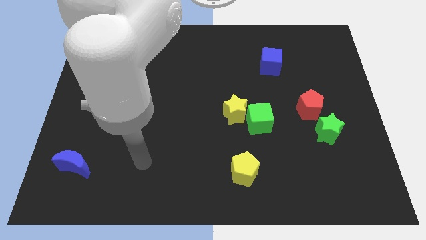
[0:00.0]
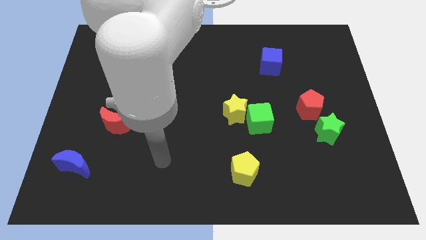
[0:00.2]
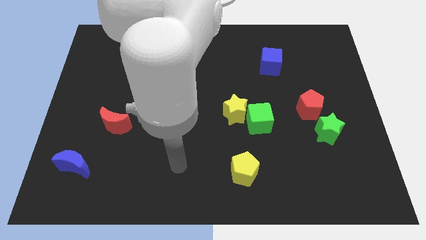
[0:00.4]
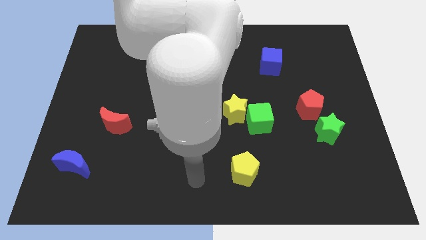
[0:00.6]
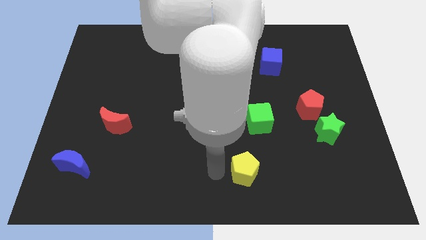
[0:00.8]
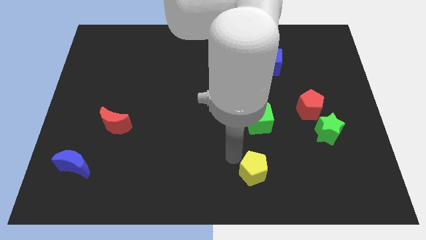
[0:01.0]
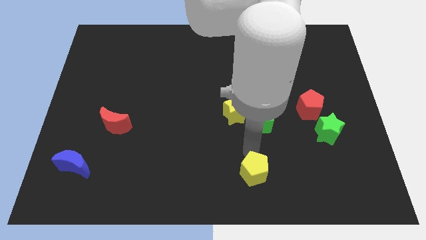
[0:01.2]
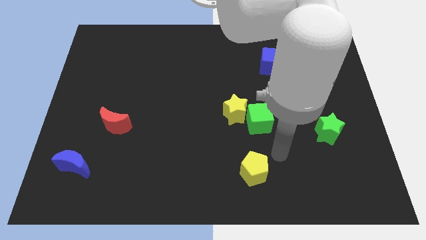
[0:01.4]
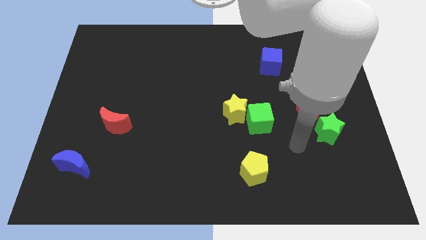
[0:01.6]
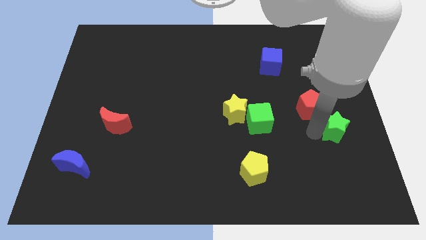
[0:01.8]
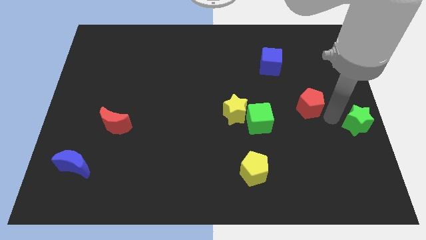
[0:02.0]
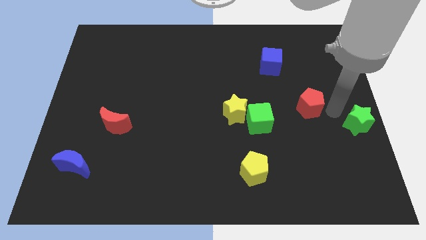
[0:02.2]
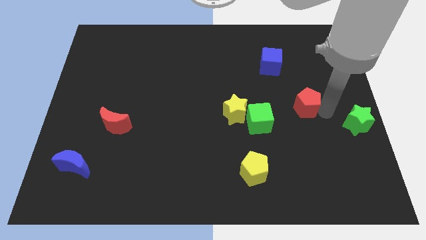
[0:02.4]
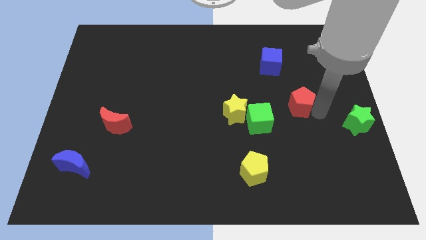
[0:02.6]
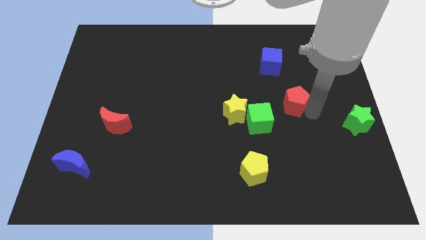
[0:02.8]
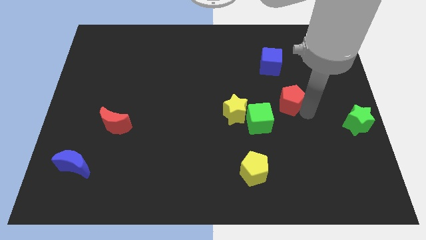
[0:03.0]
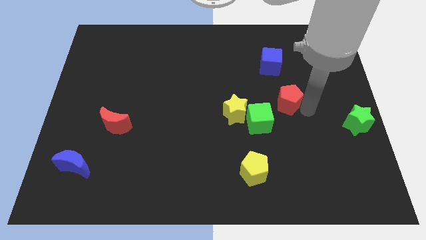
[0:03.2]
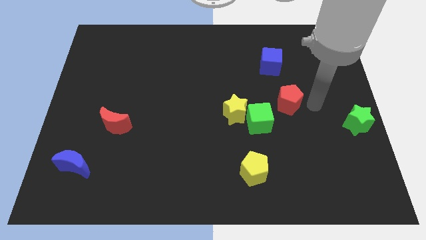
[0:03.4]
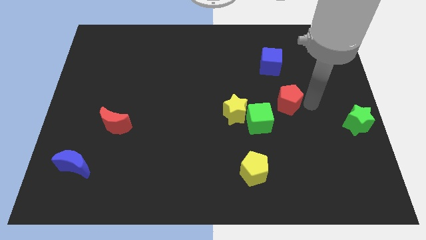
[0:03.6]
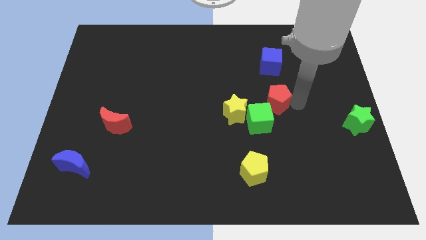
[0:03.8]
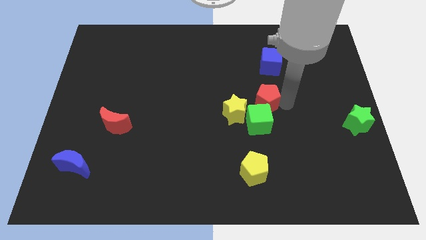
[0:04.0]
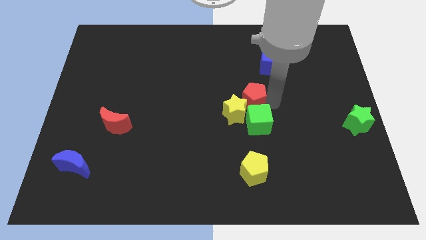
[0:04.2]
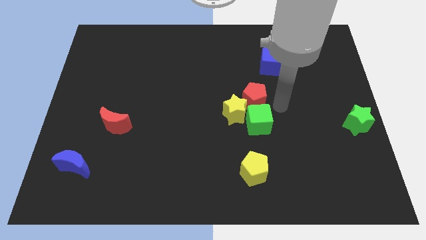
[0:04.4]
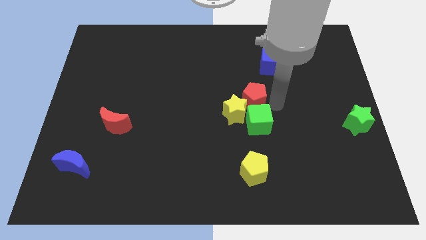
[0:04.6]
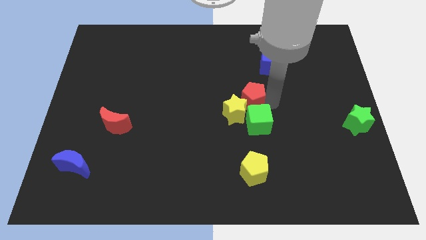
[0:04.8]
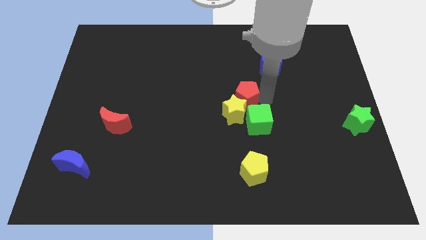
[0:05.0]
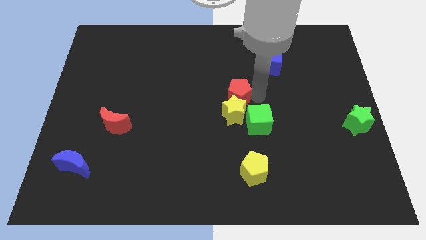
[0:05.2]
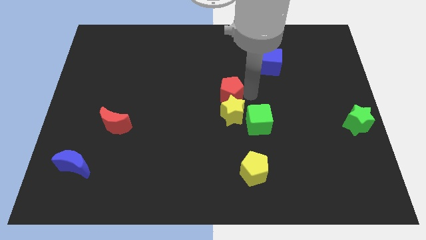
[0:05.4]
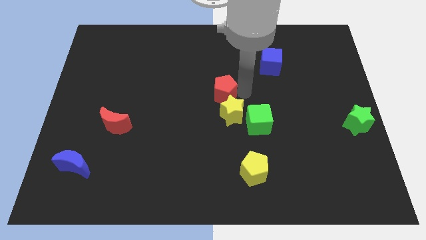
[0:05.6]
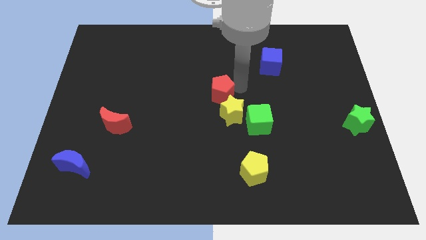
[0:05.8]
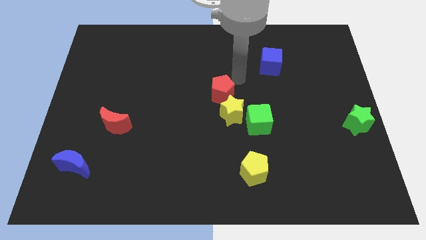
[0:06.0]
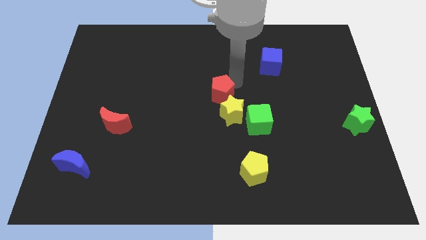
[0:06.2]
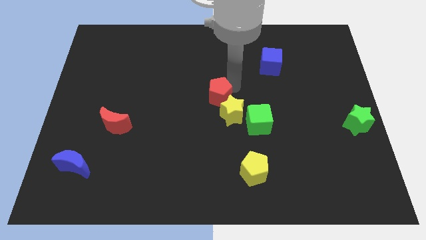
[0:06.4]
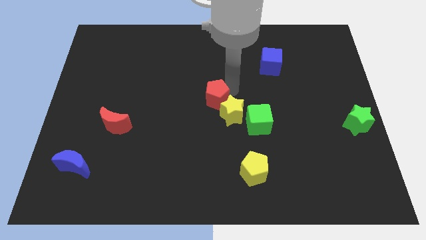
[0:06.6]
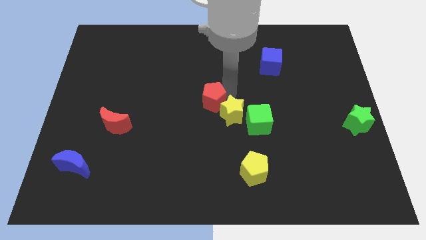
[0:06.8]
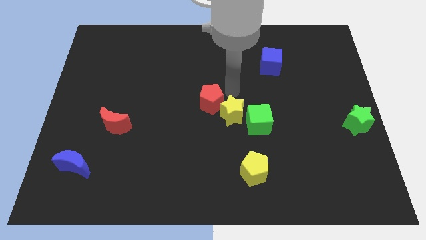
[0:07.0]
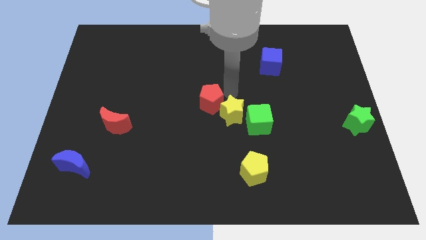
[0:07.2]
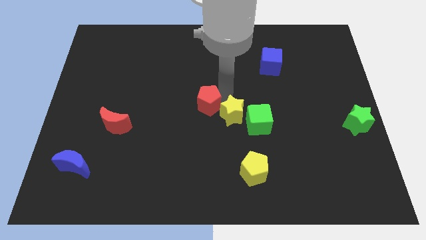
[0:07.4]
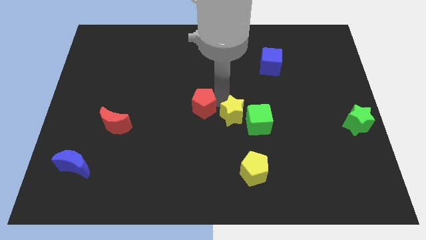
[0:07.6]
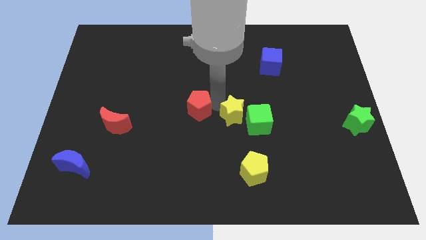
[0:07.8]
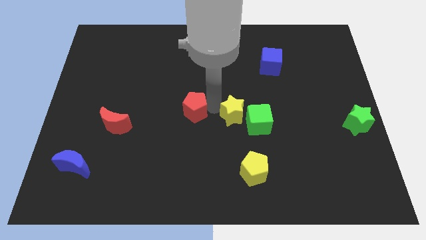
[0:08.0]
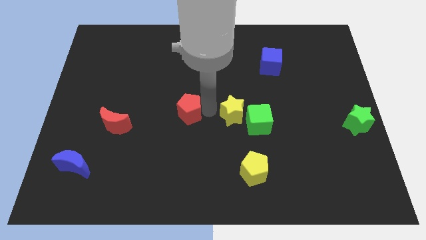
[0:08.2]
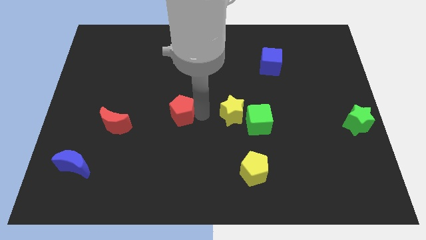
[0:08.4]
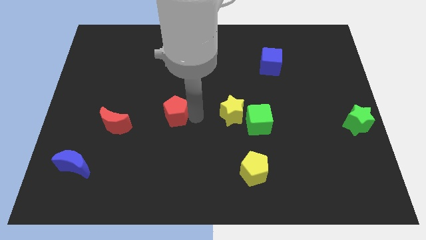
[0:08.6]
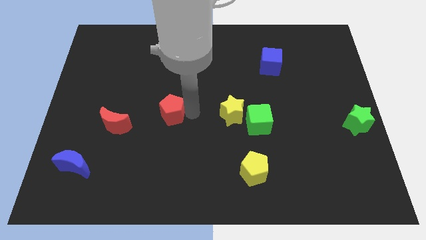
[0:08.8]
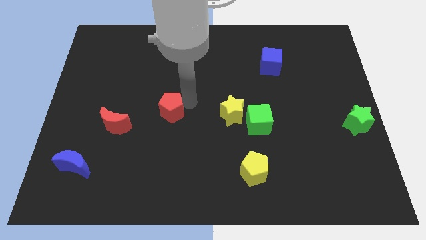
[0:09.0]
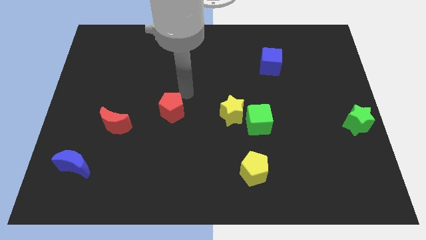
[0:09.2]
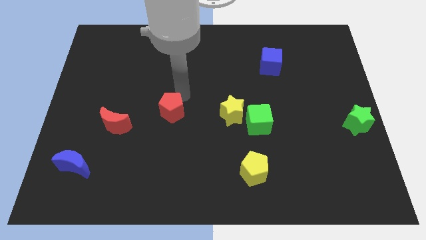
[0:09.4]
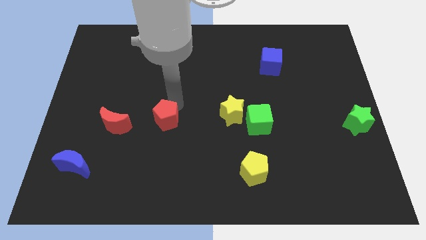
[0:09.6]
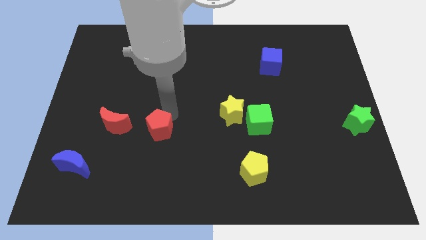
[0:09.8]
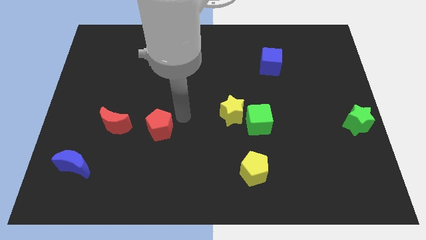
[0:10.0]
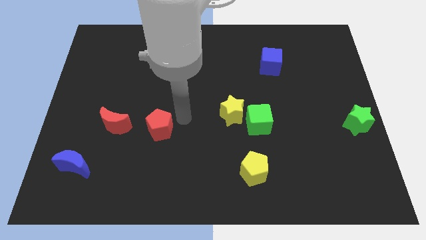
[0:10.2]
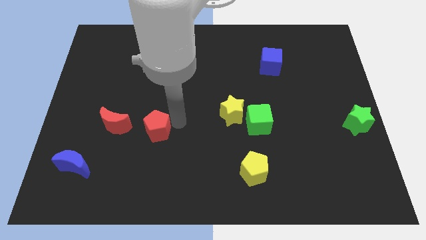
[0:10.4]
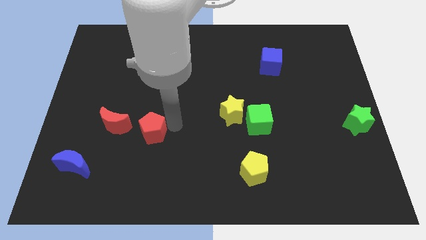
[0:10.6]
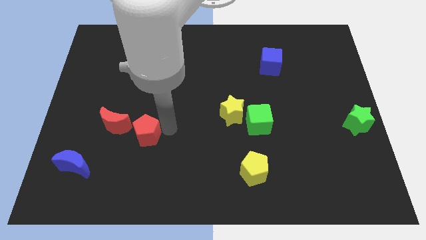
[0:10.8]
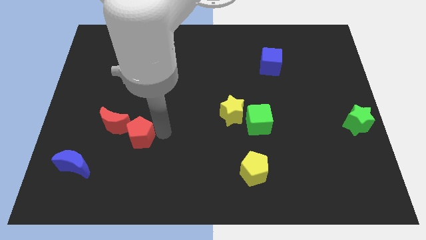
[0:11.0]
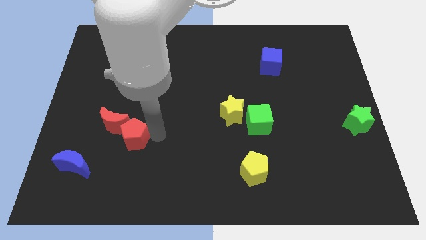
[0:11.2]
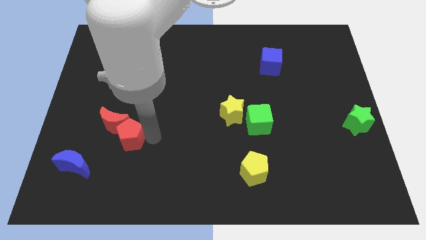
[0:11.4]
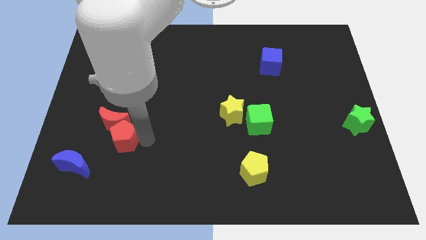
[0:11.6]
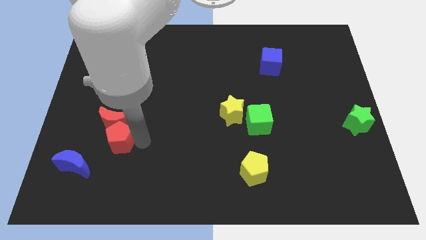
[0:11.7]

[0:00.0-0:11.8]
slide the red pentagon to the bottom left of the red moon

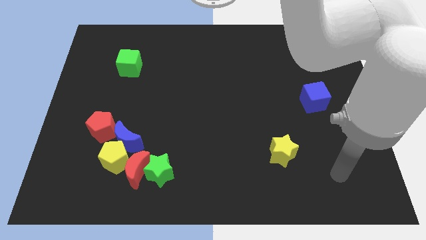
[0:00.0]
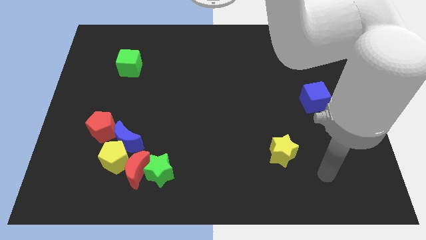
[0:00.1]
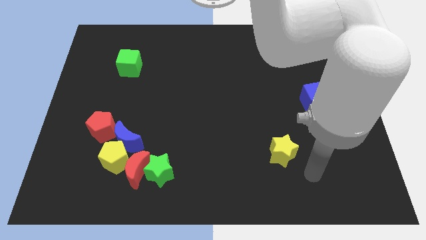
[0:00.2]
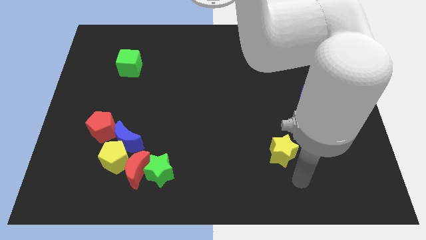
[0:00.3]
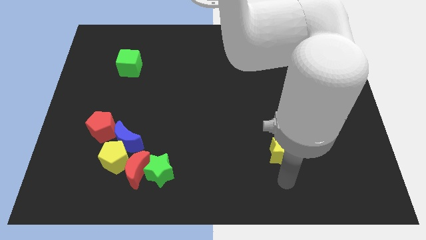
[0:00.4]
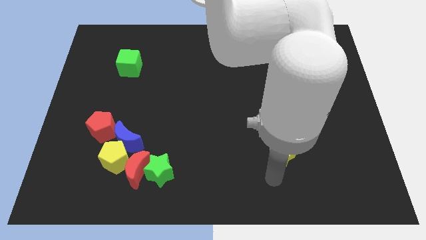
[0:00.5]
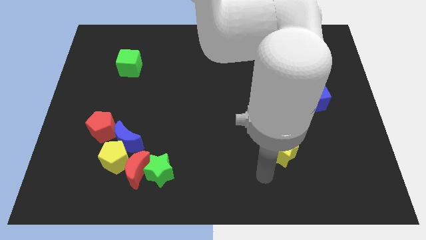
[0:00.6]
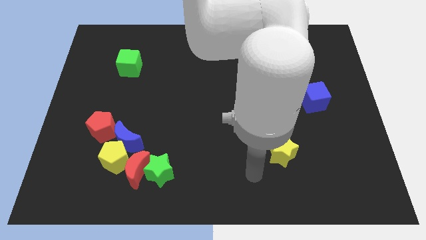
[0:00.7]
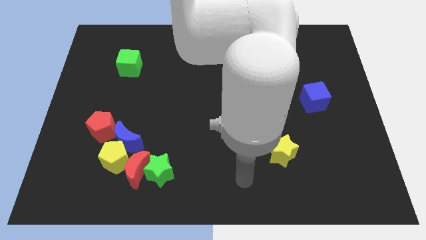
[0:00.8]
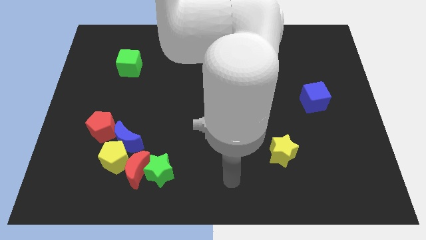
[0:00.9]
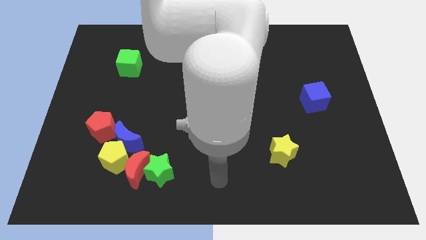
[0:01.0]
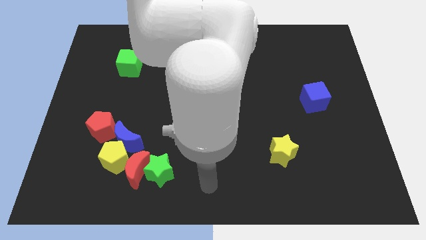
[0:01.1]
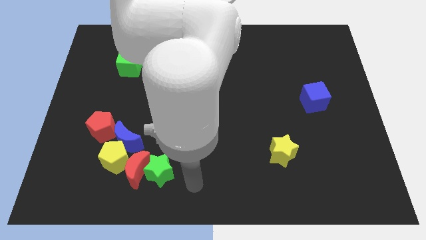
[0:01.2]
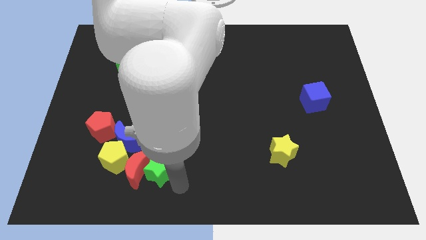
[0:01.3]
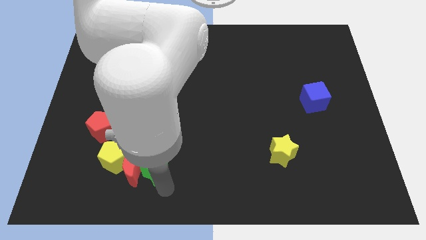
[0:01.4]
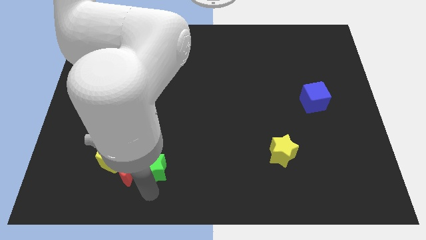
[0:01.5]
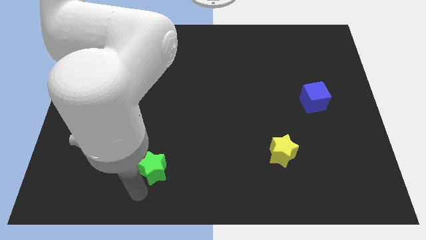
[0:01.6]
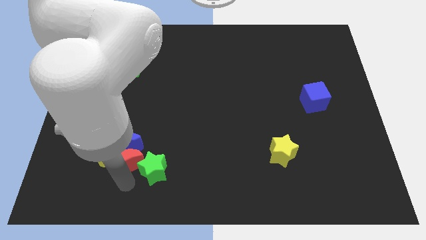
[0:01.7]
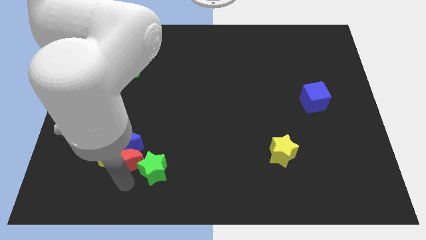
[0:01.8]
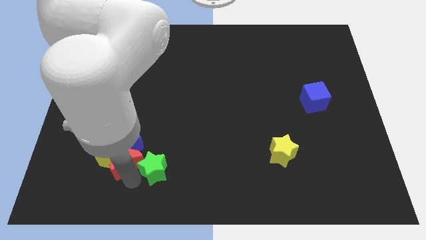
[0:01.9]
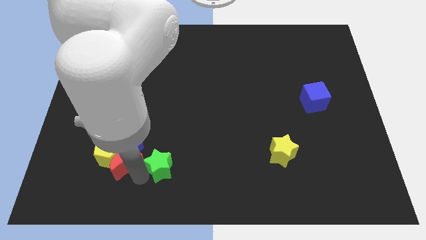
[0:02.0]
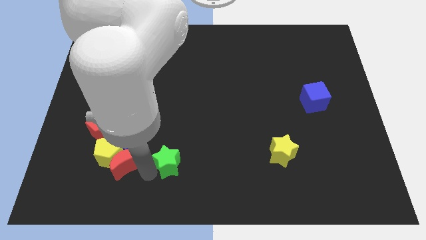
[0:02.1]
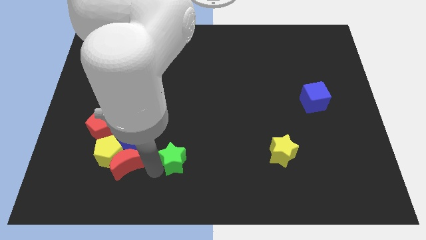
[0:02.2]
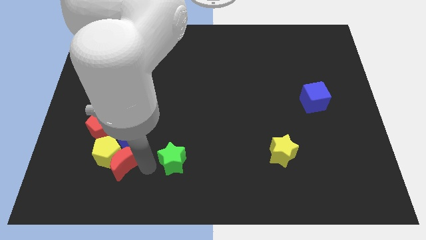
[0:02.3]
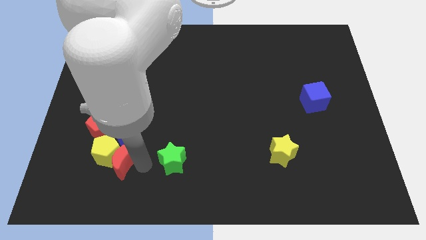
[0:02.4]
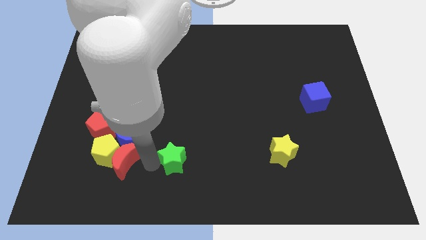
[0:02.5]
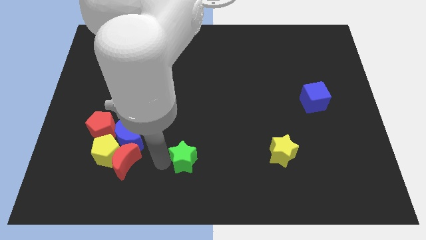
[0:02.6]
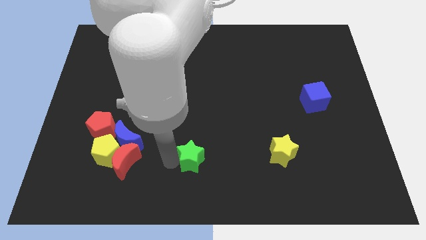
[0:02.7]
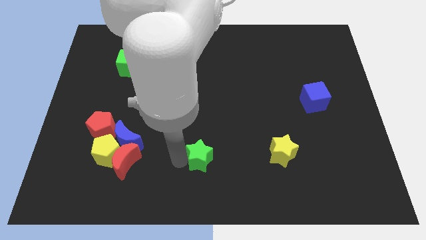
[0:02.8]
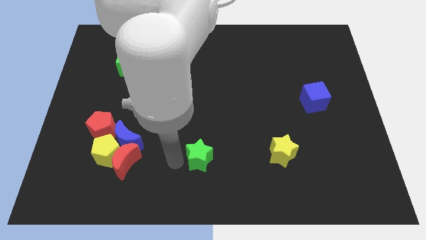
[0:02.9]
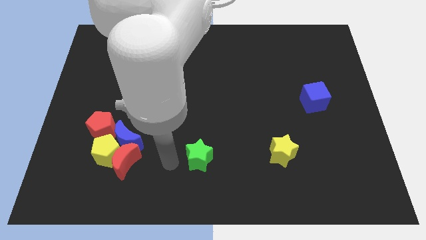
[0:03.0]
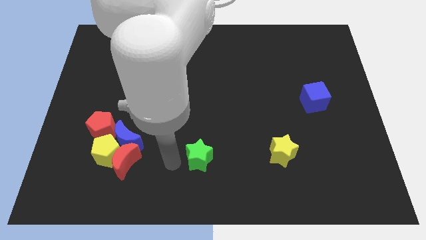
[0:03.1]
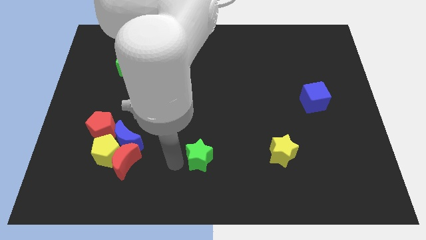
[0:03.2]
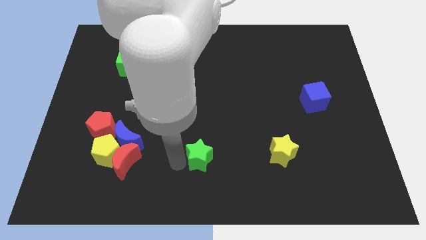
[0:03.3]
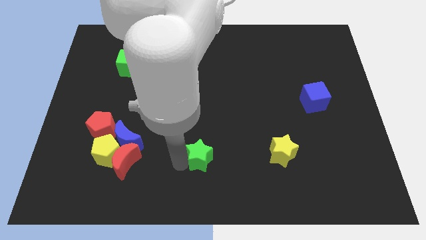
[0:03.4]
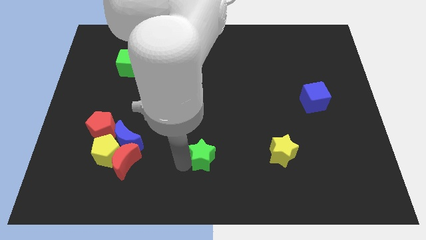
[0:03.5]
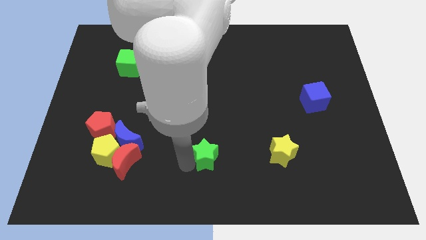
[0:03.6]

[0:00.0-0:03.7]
put the green star to the left side of the yellow star
